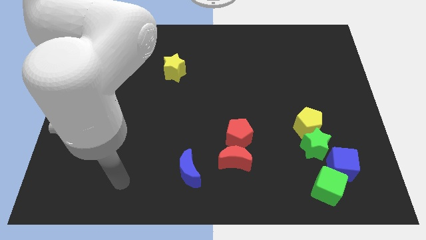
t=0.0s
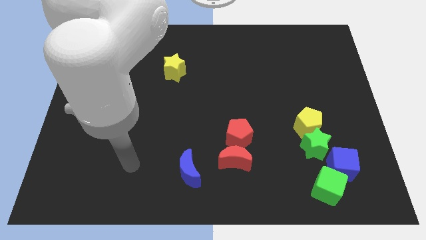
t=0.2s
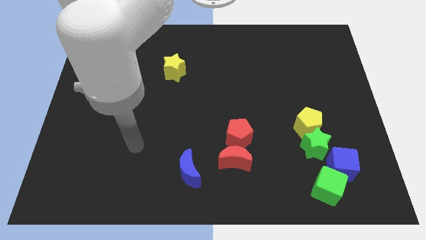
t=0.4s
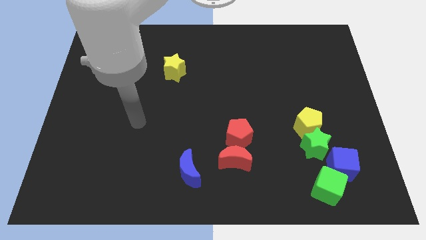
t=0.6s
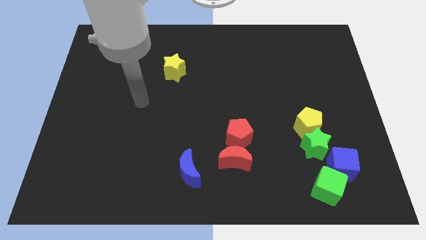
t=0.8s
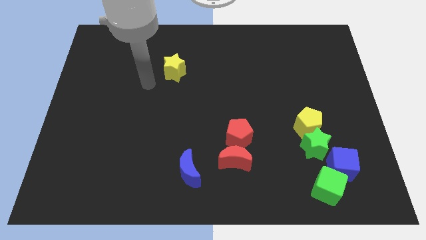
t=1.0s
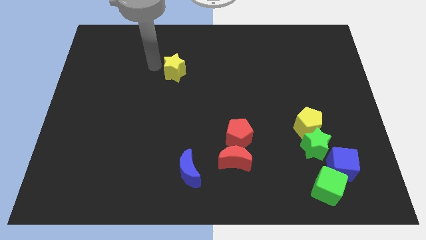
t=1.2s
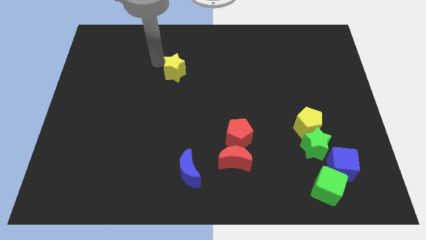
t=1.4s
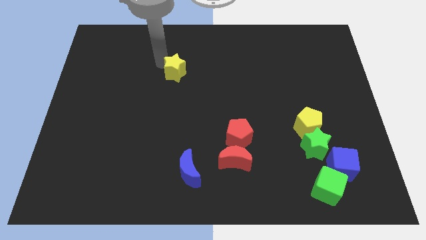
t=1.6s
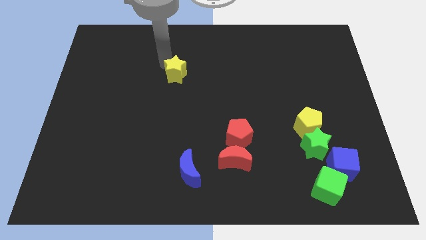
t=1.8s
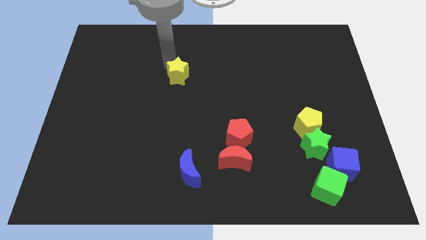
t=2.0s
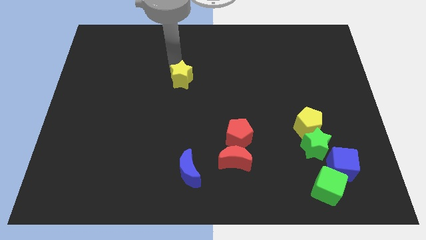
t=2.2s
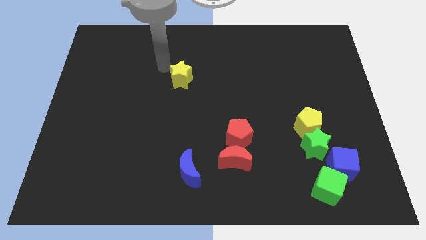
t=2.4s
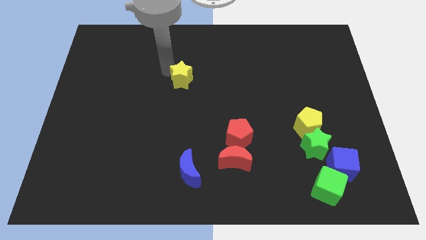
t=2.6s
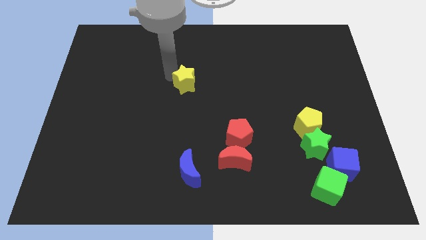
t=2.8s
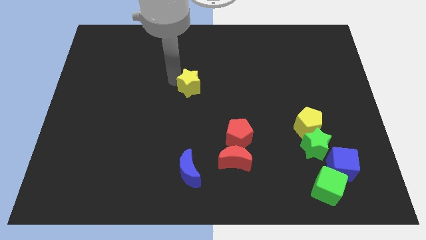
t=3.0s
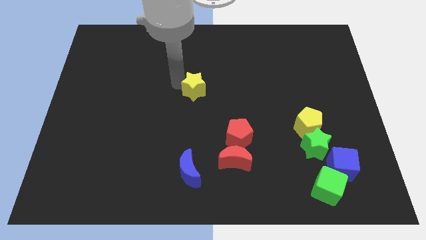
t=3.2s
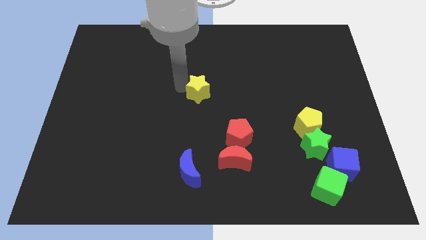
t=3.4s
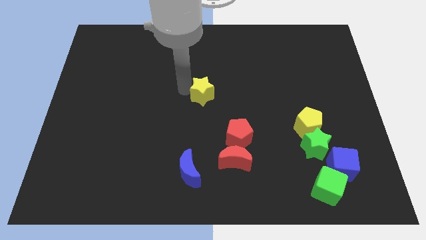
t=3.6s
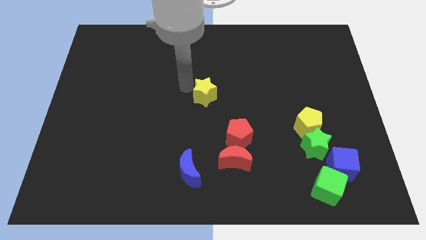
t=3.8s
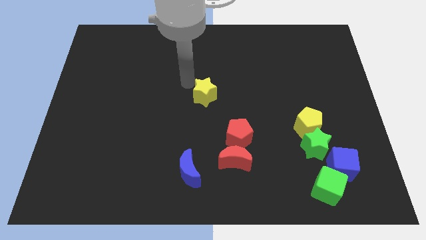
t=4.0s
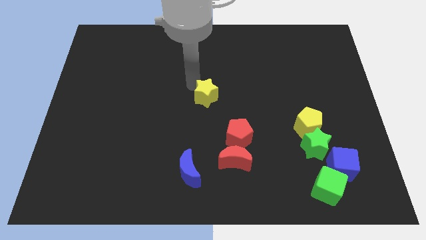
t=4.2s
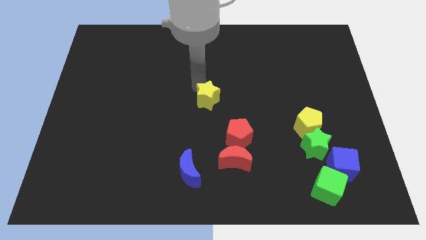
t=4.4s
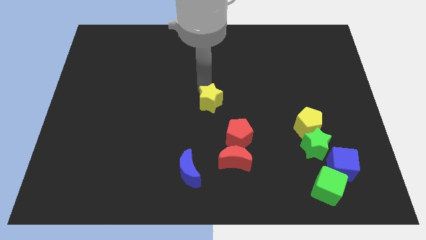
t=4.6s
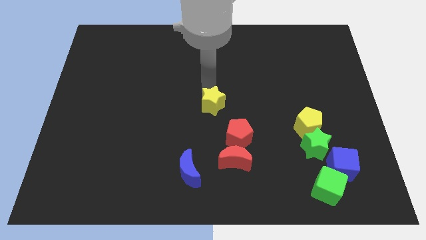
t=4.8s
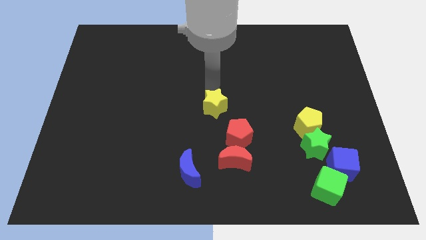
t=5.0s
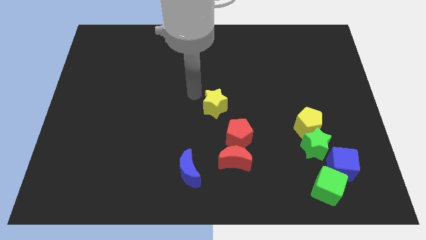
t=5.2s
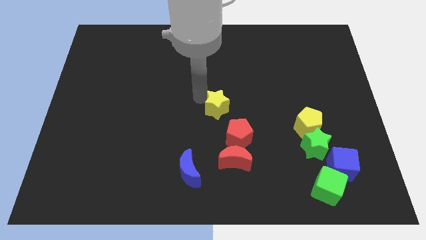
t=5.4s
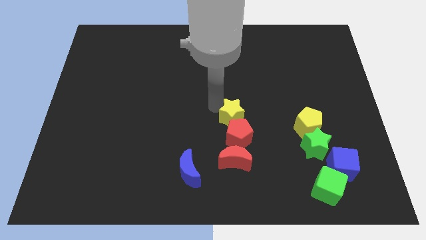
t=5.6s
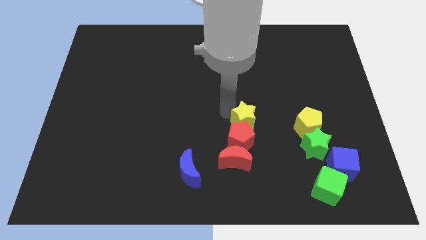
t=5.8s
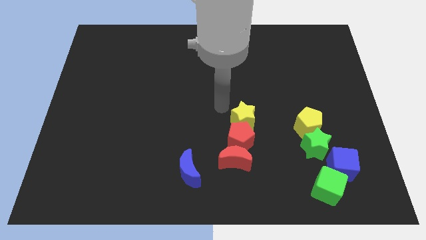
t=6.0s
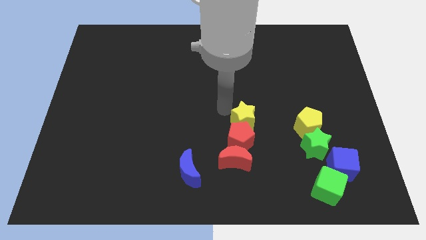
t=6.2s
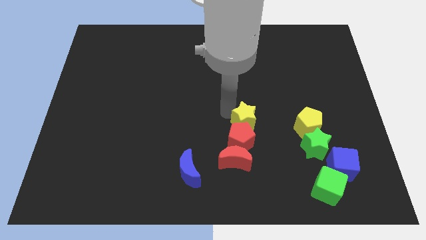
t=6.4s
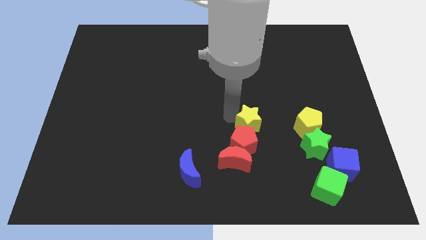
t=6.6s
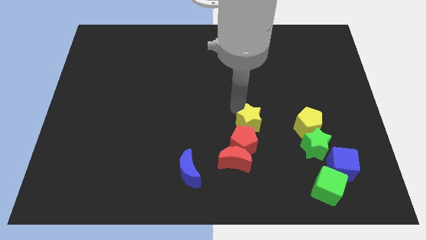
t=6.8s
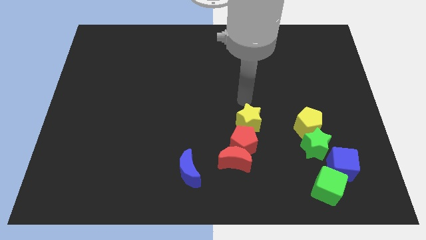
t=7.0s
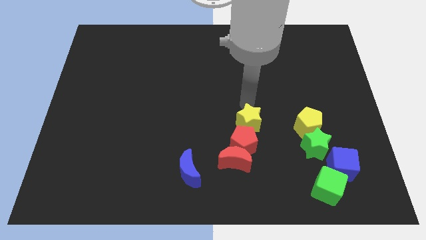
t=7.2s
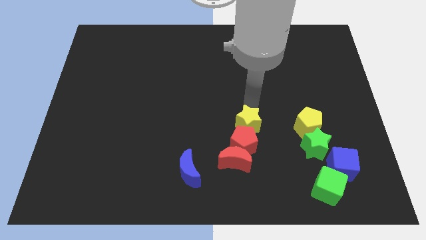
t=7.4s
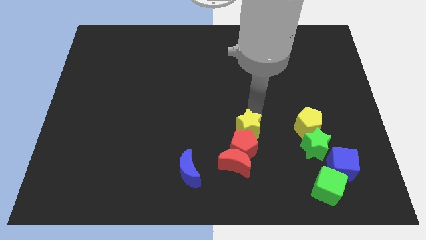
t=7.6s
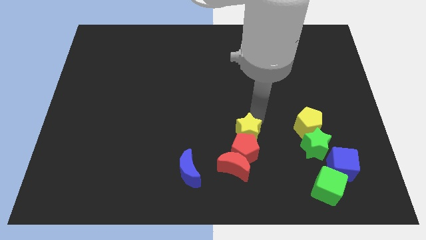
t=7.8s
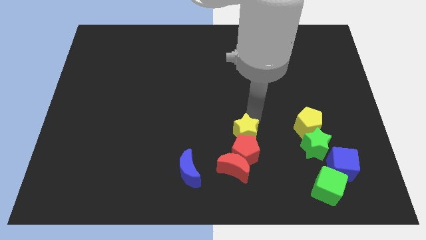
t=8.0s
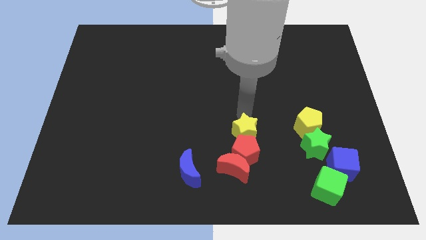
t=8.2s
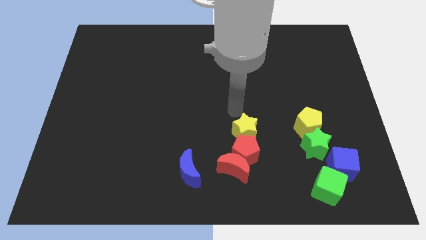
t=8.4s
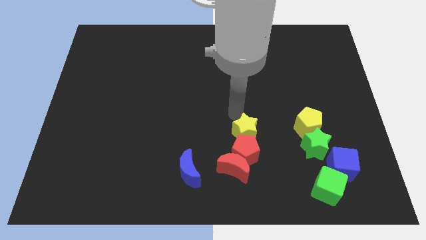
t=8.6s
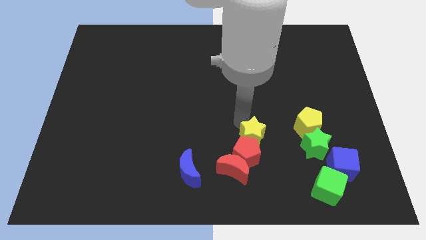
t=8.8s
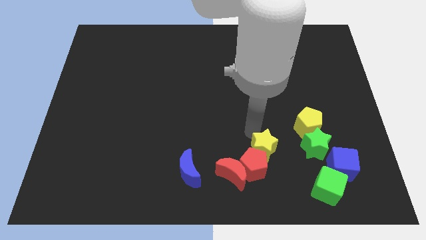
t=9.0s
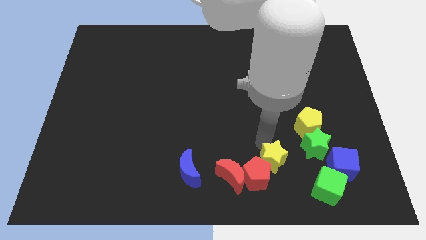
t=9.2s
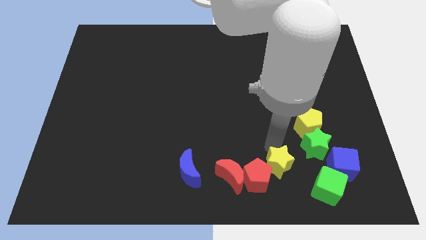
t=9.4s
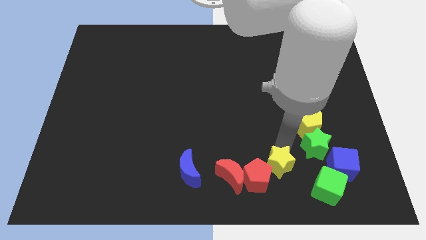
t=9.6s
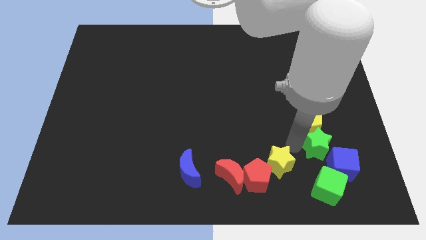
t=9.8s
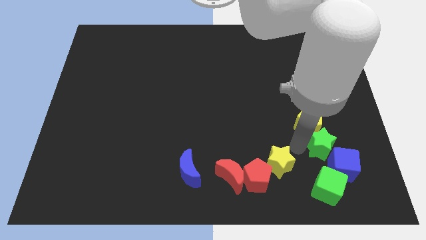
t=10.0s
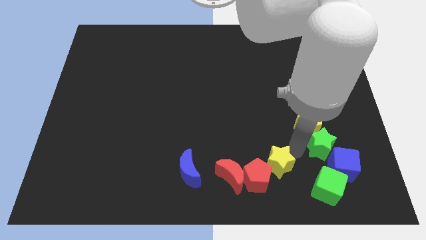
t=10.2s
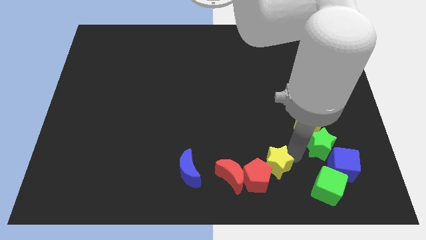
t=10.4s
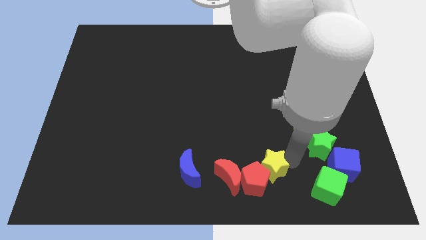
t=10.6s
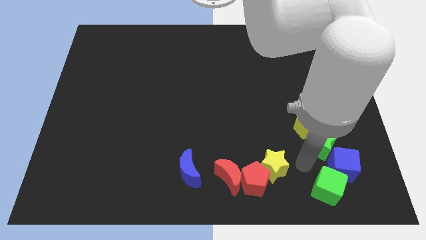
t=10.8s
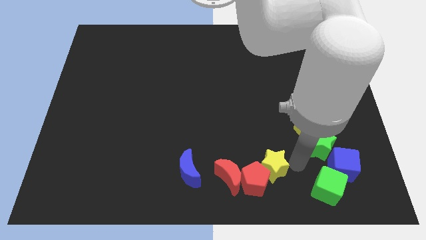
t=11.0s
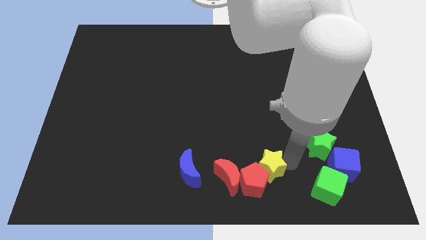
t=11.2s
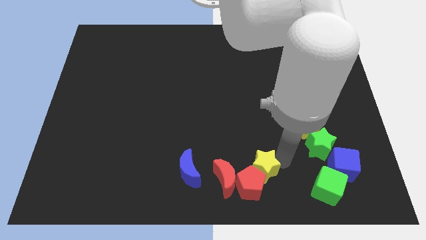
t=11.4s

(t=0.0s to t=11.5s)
push the yellow star to the right side of the blue moon

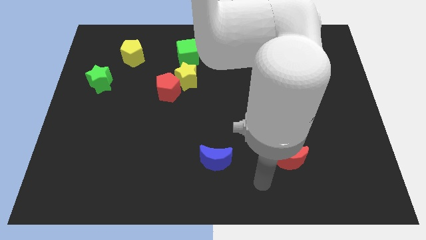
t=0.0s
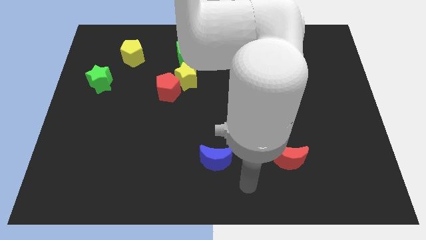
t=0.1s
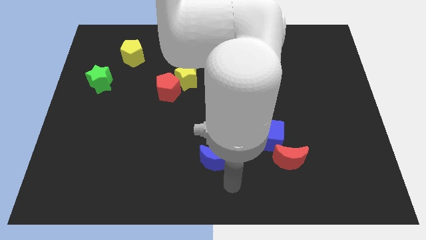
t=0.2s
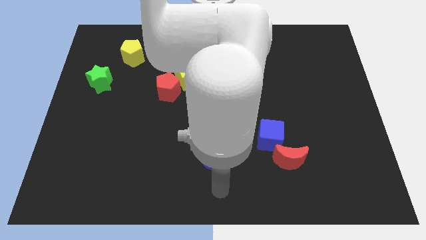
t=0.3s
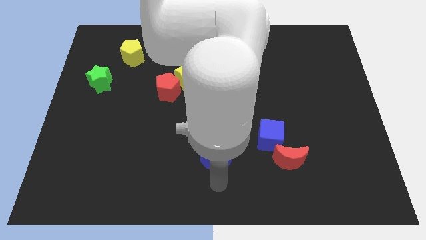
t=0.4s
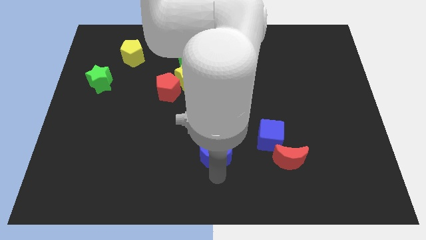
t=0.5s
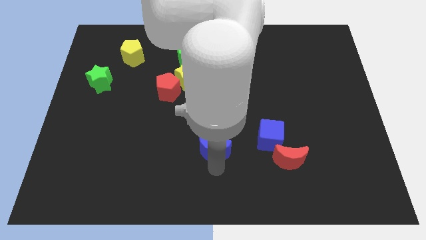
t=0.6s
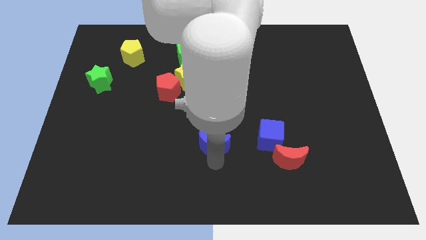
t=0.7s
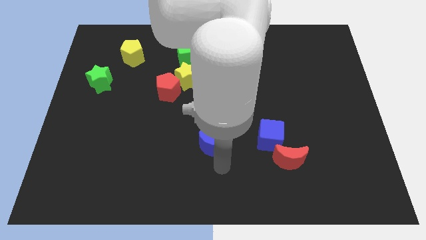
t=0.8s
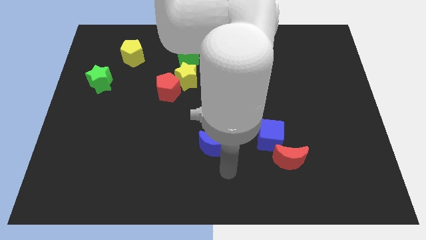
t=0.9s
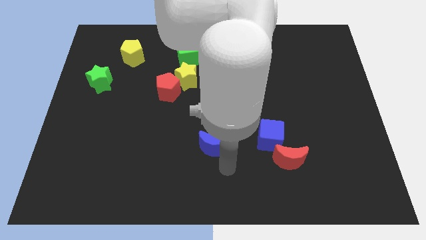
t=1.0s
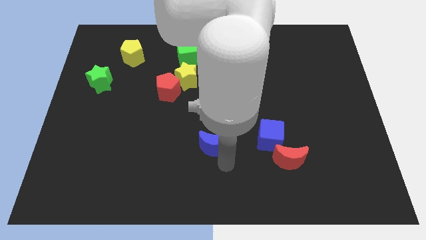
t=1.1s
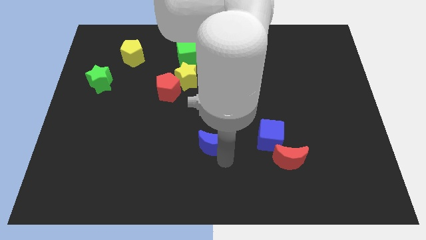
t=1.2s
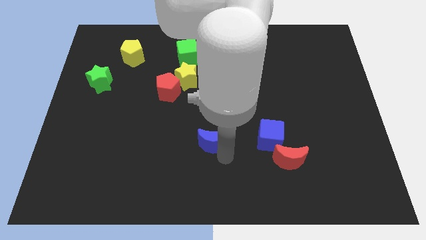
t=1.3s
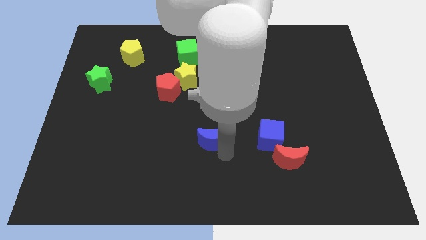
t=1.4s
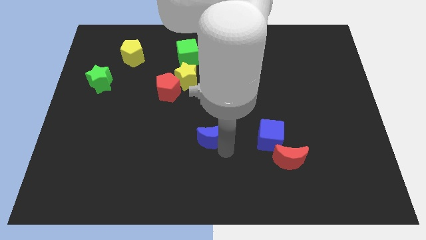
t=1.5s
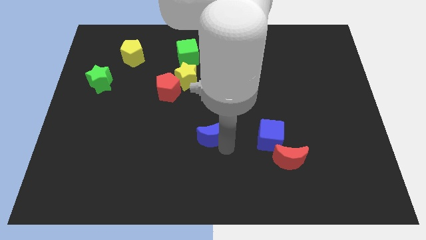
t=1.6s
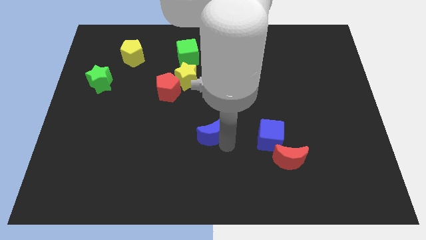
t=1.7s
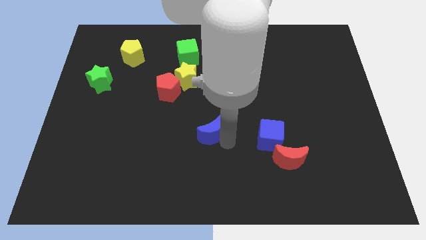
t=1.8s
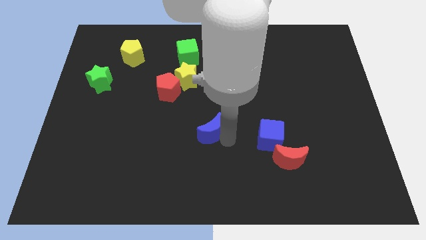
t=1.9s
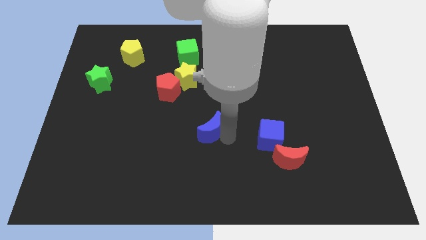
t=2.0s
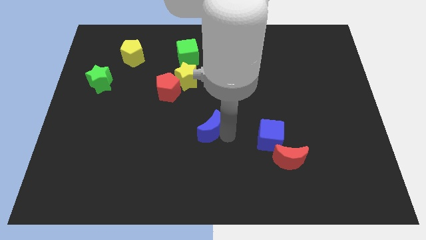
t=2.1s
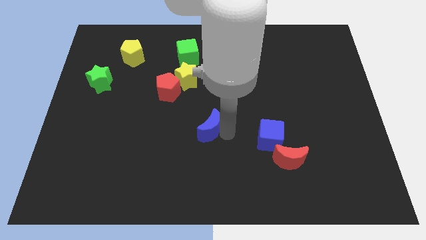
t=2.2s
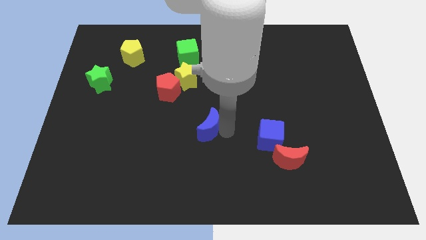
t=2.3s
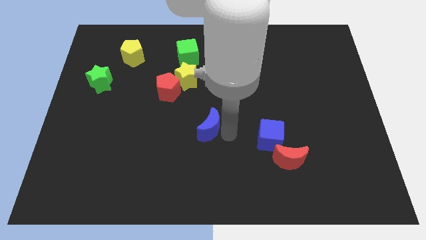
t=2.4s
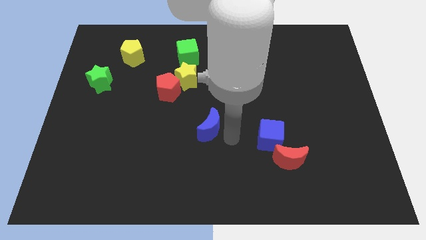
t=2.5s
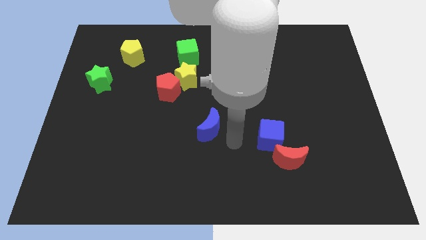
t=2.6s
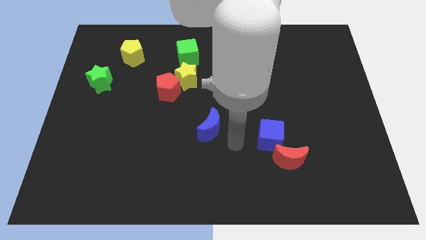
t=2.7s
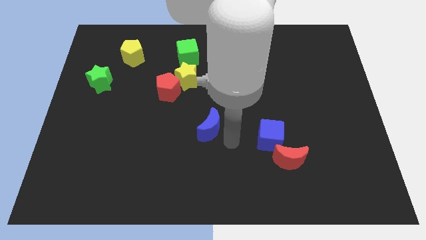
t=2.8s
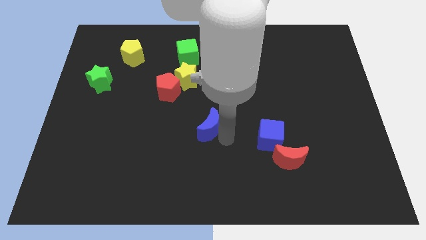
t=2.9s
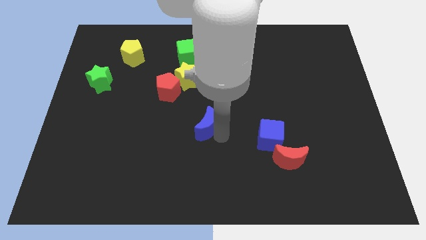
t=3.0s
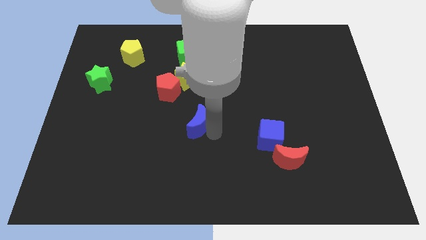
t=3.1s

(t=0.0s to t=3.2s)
put the blue moon to the bottom right side of the red pentagon
